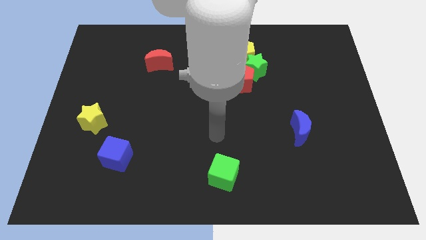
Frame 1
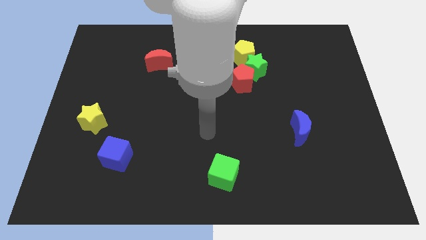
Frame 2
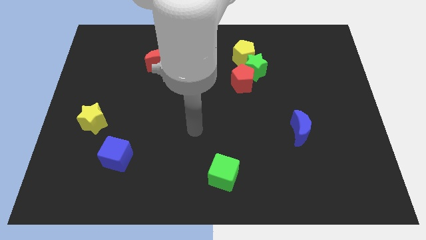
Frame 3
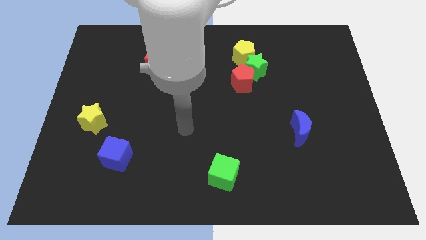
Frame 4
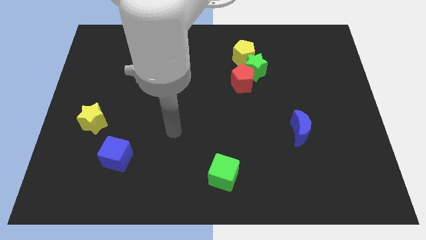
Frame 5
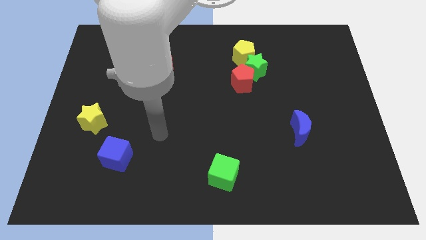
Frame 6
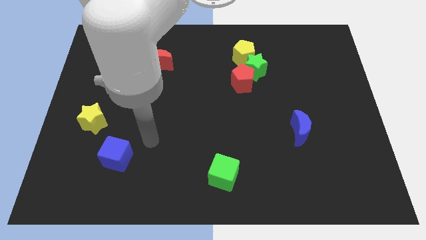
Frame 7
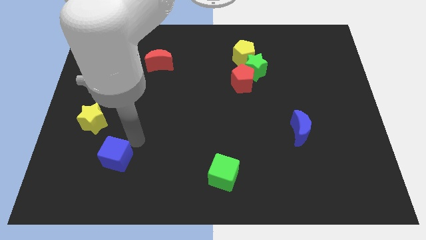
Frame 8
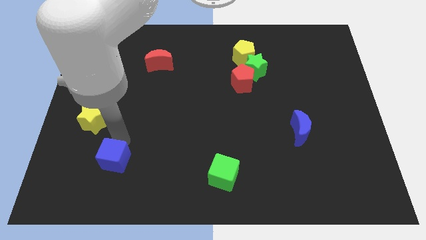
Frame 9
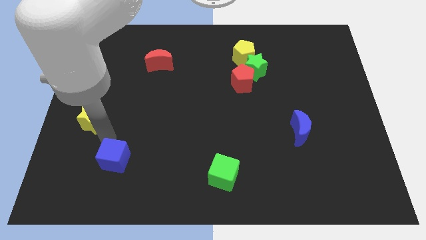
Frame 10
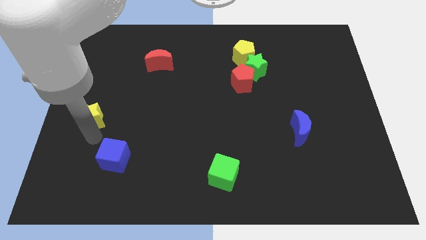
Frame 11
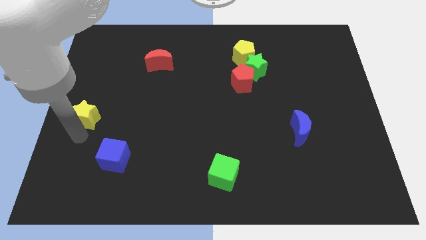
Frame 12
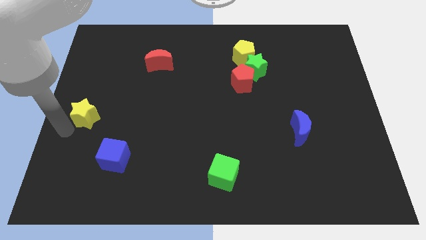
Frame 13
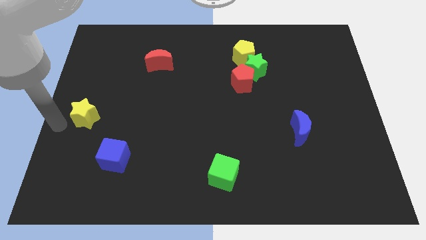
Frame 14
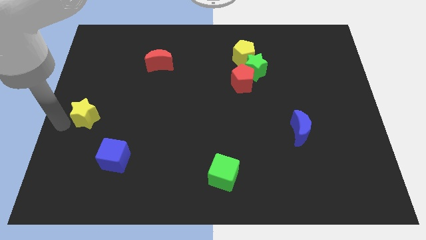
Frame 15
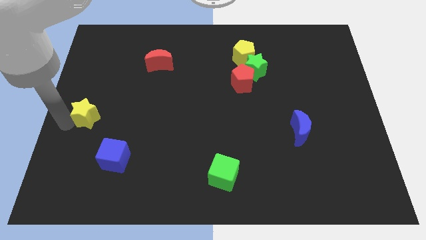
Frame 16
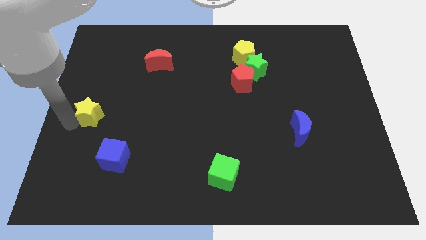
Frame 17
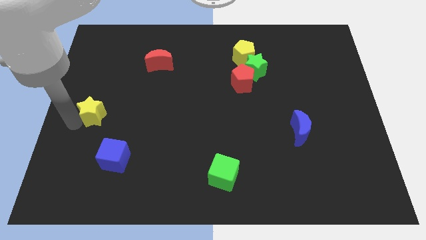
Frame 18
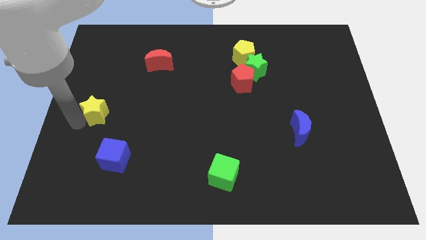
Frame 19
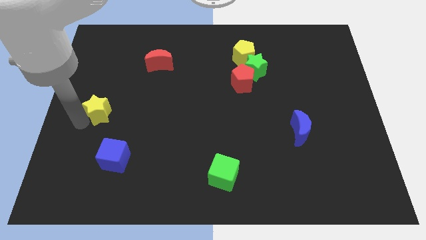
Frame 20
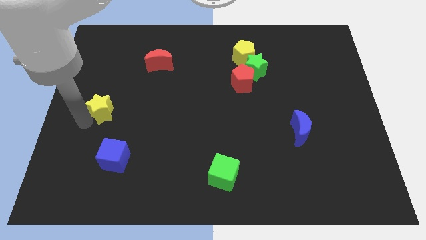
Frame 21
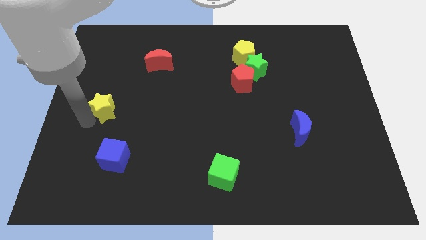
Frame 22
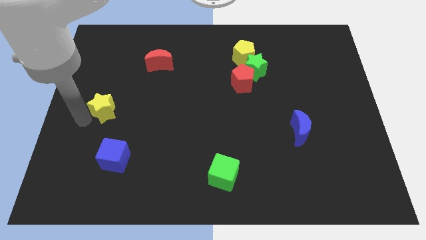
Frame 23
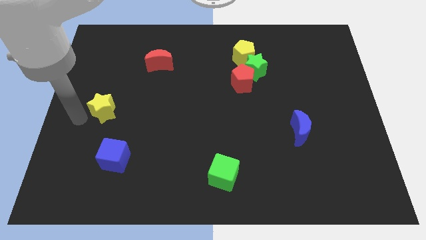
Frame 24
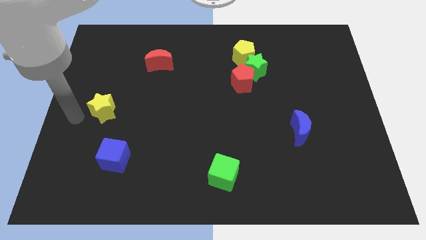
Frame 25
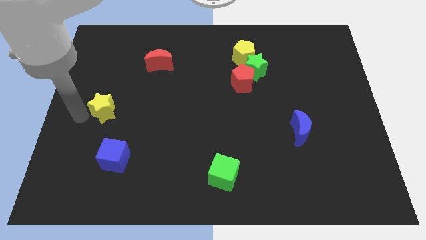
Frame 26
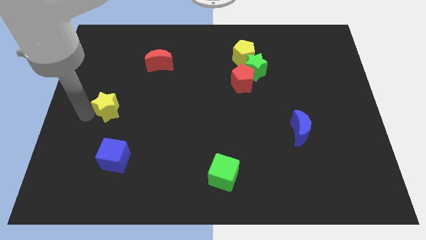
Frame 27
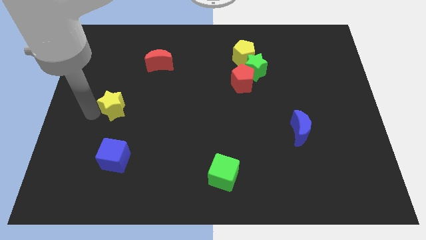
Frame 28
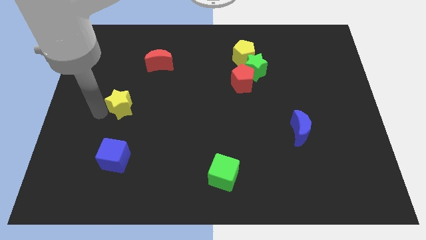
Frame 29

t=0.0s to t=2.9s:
slightly push the yellow star upwards and then to the right

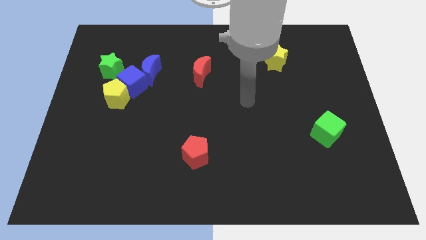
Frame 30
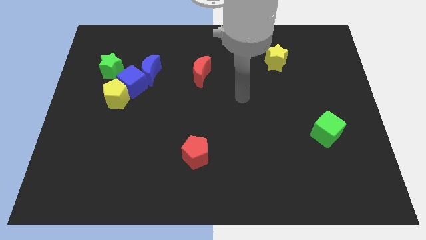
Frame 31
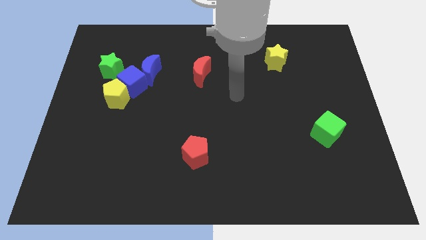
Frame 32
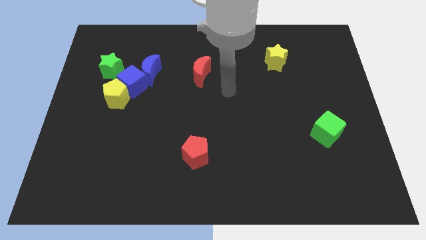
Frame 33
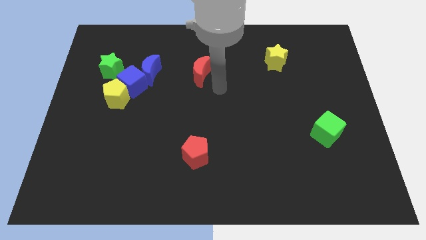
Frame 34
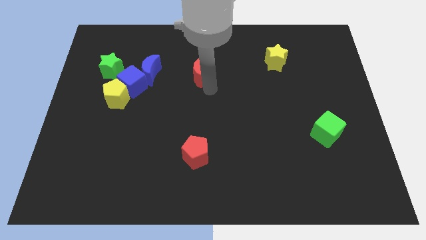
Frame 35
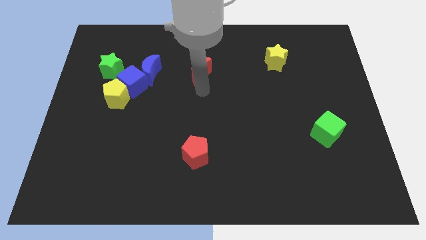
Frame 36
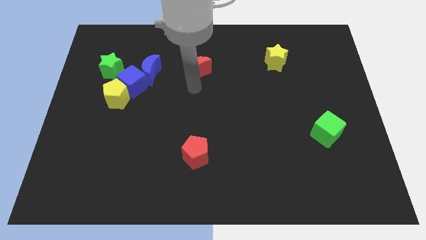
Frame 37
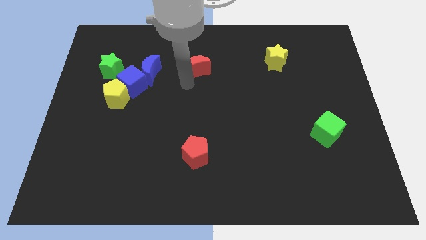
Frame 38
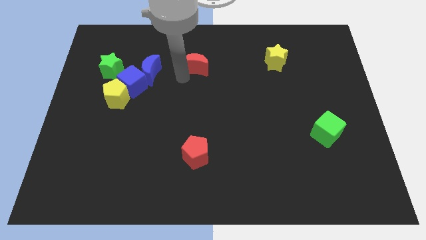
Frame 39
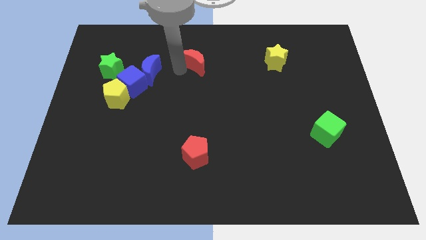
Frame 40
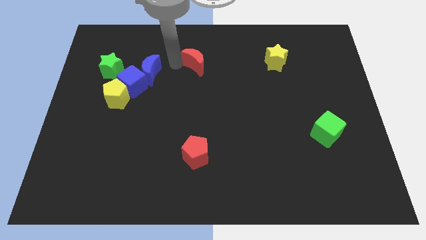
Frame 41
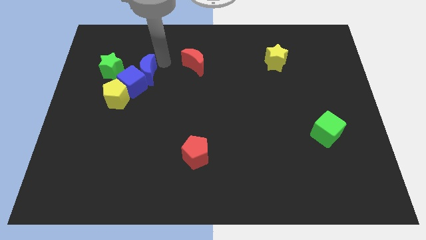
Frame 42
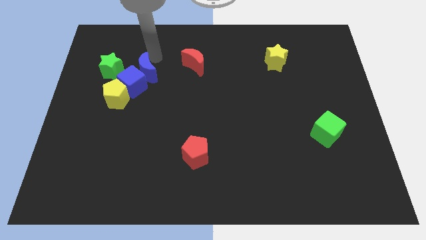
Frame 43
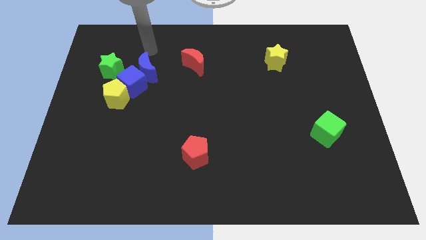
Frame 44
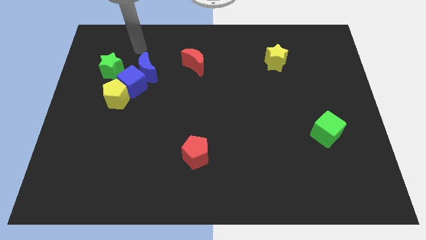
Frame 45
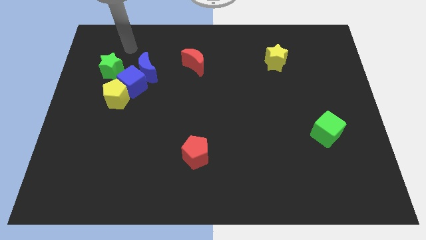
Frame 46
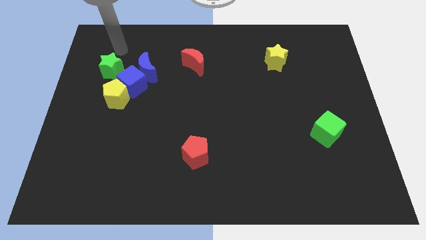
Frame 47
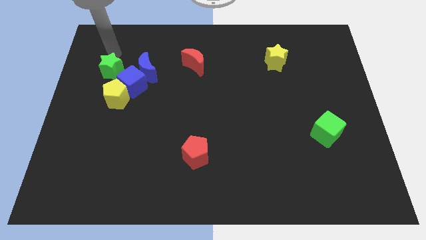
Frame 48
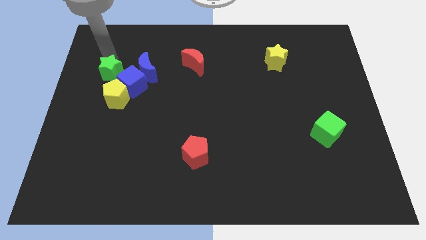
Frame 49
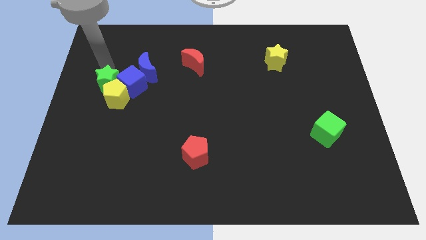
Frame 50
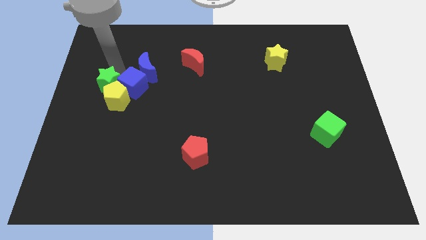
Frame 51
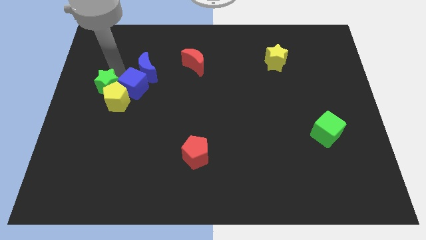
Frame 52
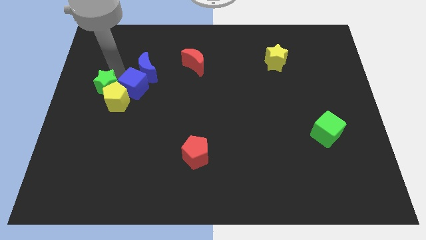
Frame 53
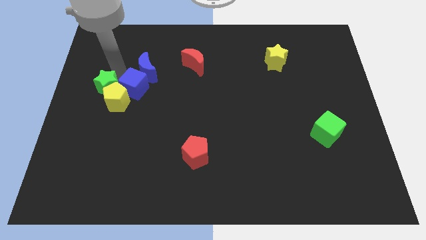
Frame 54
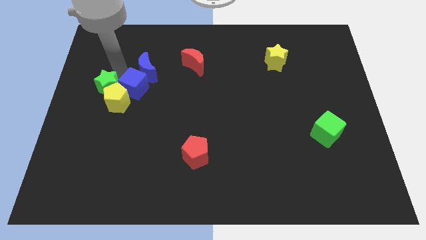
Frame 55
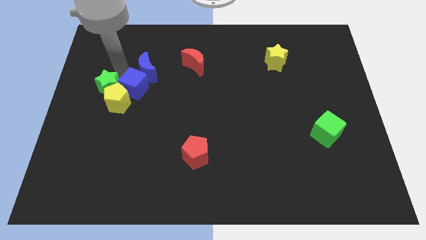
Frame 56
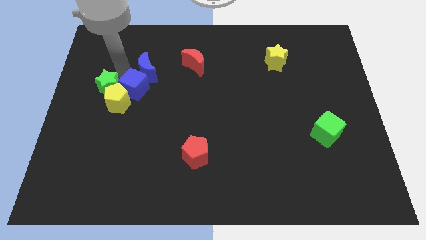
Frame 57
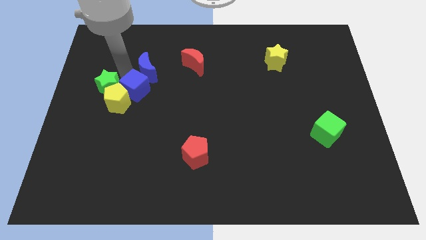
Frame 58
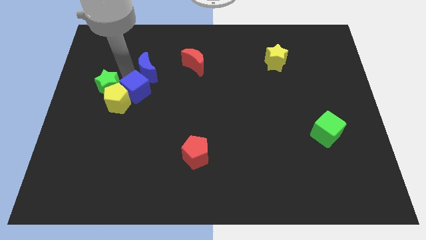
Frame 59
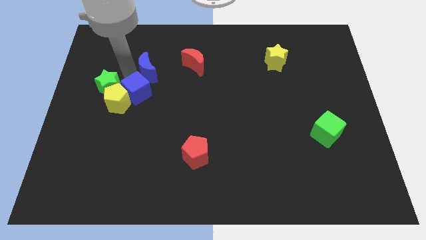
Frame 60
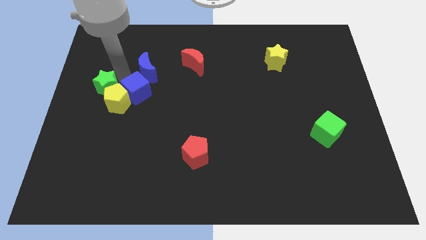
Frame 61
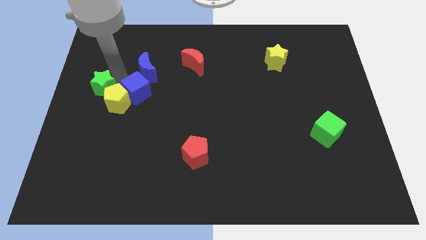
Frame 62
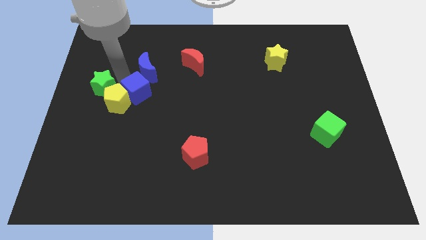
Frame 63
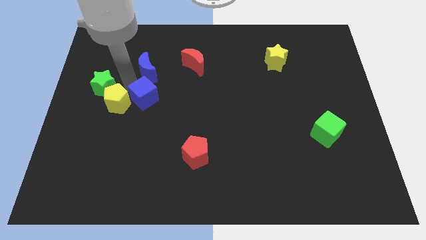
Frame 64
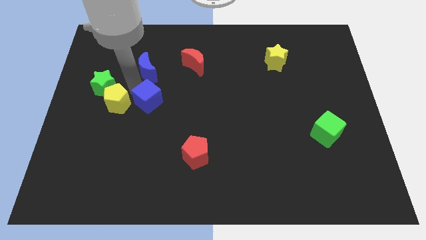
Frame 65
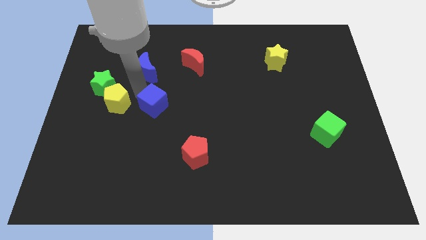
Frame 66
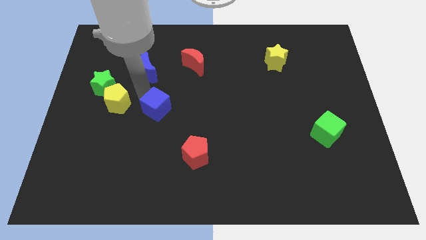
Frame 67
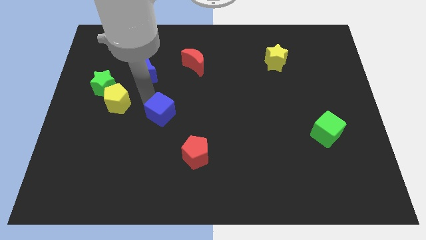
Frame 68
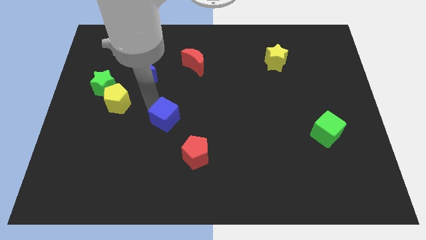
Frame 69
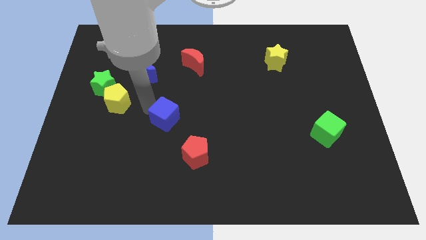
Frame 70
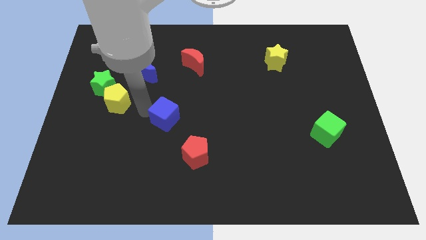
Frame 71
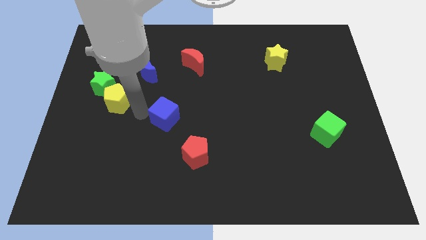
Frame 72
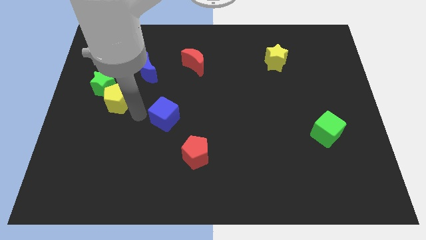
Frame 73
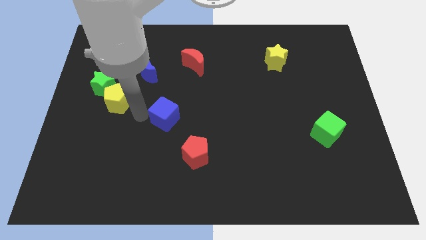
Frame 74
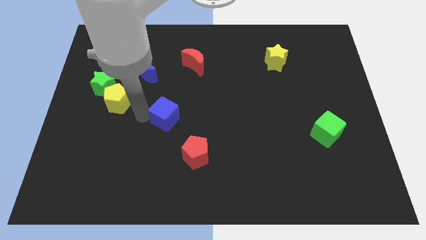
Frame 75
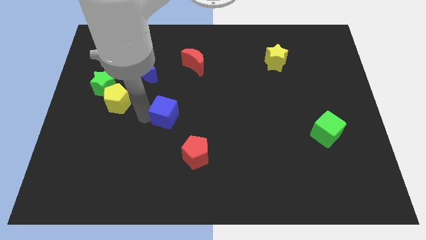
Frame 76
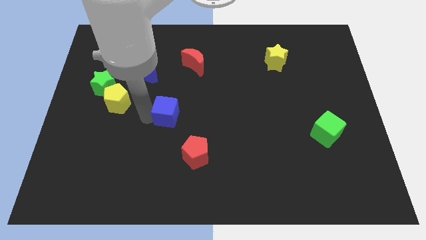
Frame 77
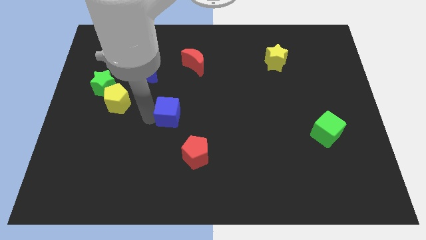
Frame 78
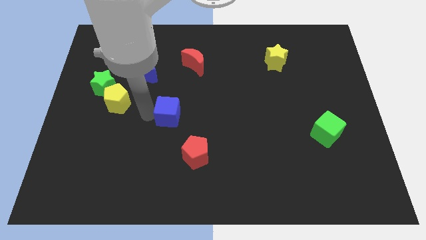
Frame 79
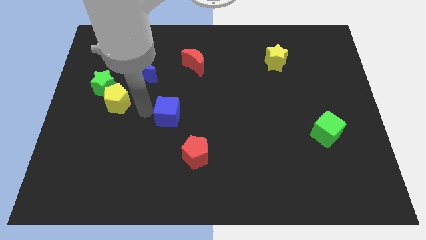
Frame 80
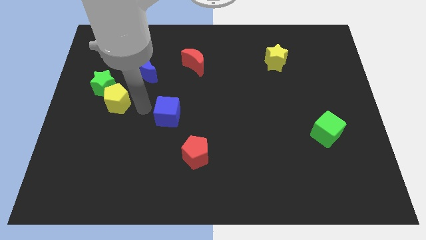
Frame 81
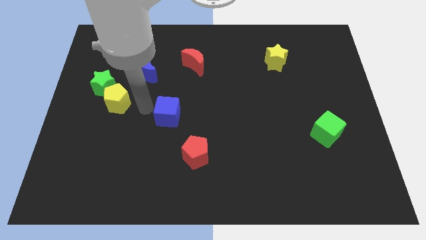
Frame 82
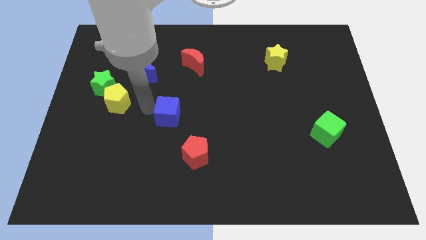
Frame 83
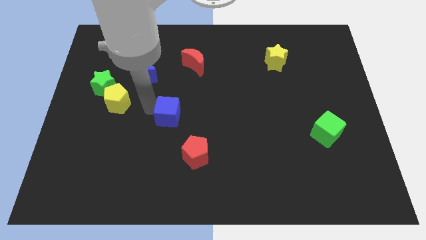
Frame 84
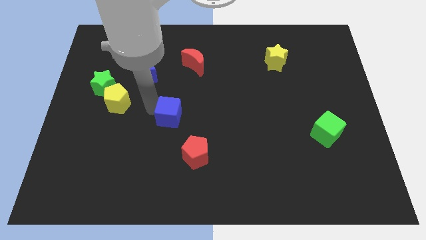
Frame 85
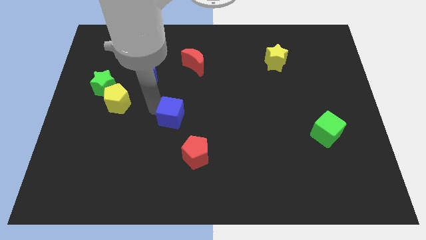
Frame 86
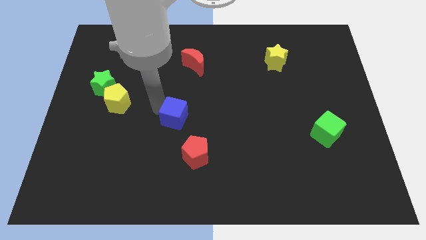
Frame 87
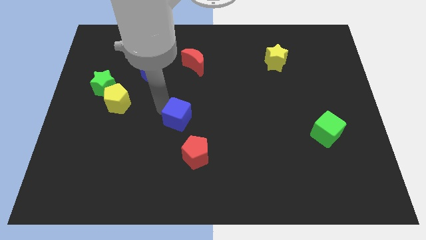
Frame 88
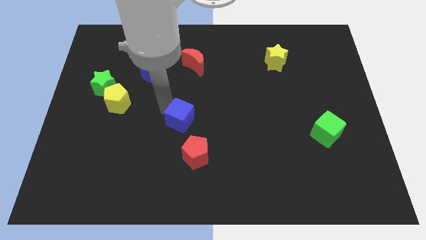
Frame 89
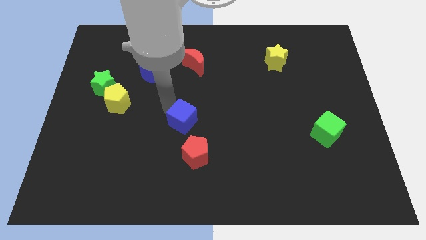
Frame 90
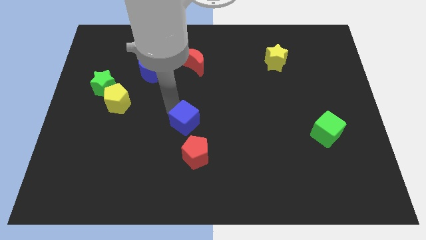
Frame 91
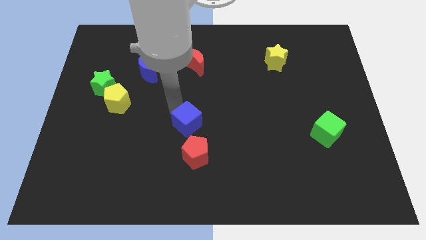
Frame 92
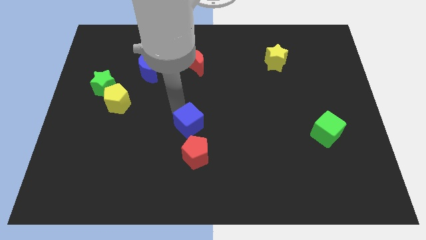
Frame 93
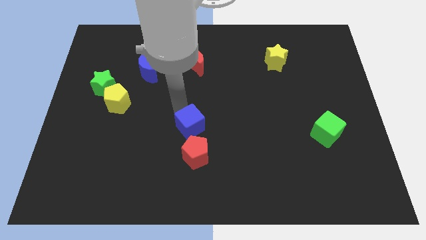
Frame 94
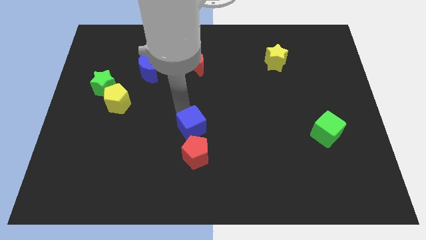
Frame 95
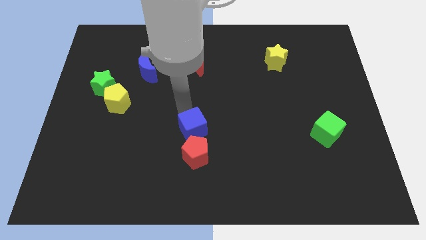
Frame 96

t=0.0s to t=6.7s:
push the blue cube down and right diagonally
